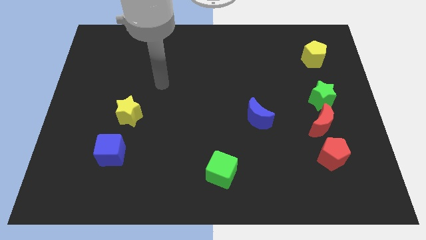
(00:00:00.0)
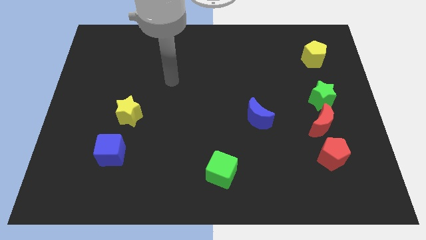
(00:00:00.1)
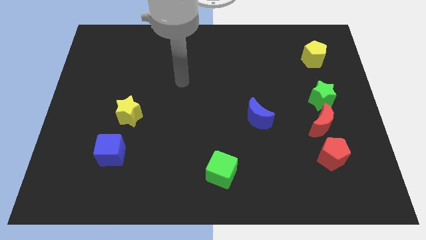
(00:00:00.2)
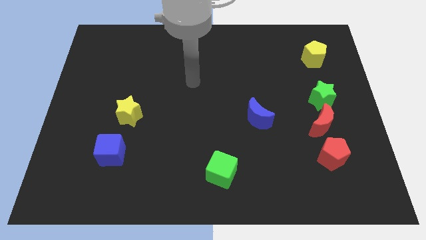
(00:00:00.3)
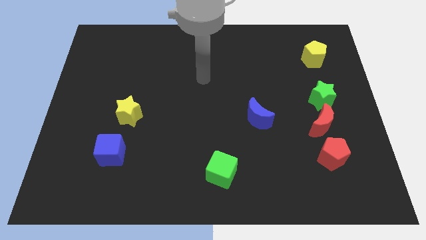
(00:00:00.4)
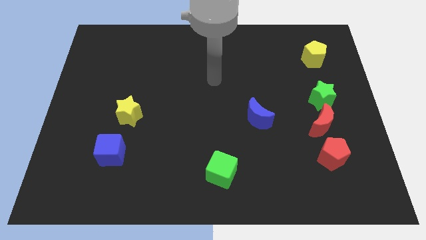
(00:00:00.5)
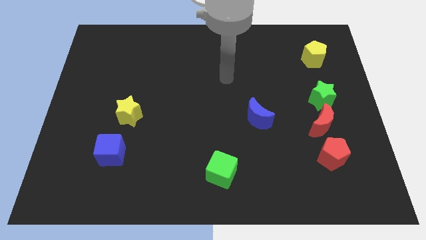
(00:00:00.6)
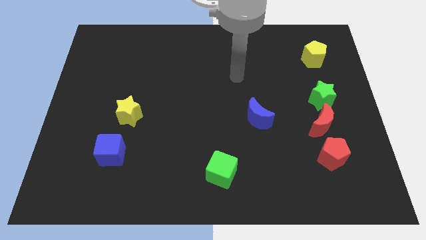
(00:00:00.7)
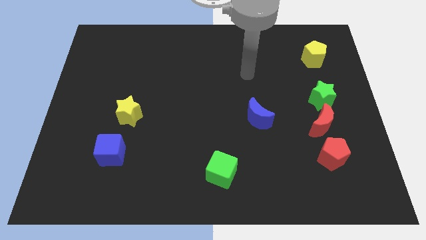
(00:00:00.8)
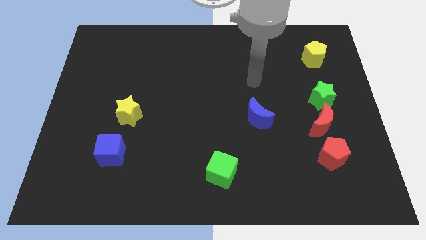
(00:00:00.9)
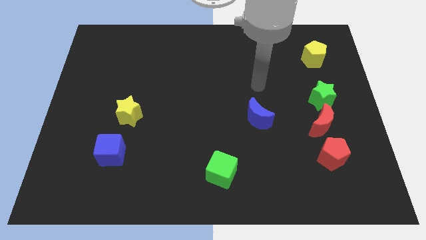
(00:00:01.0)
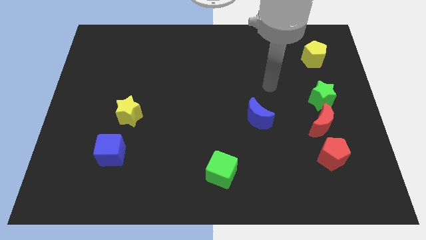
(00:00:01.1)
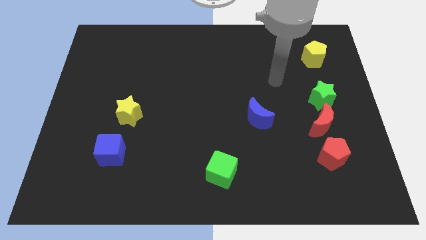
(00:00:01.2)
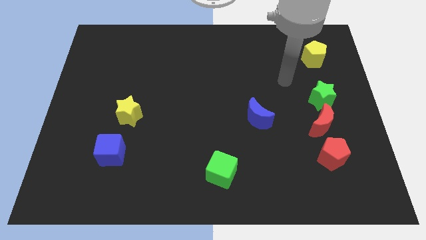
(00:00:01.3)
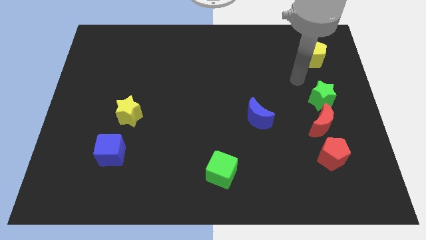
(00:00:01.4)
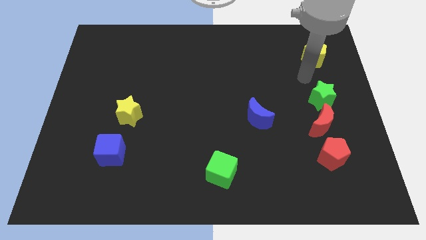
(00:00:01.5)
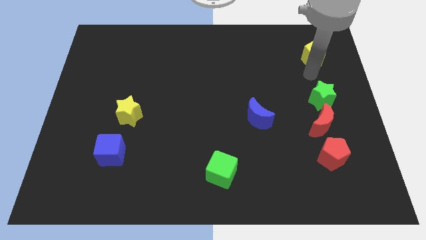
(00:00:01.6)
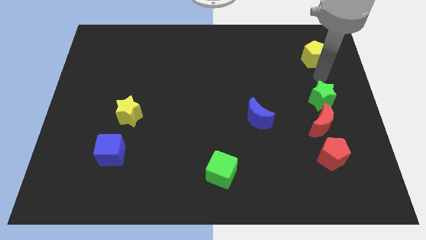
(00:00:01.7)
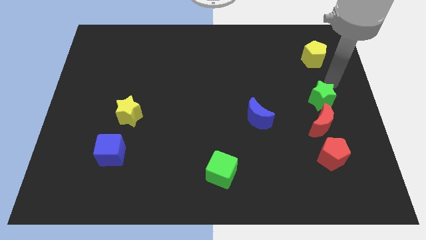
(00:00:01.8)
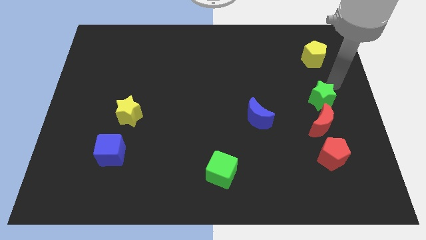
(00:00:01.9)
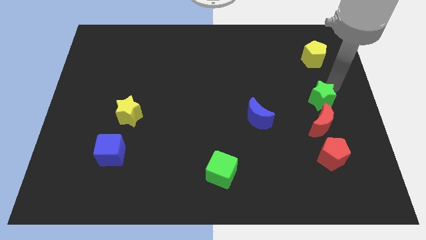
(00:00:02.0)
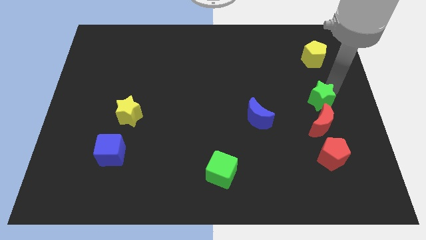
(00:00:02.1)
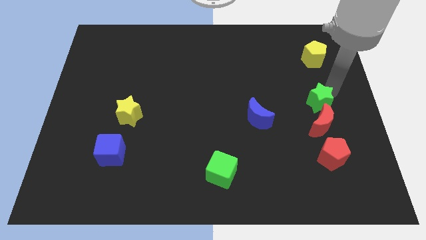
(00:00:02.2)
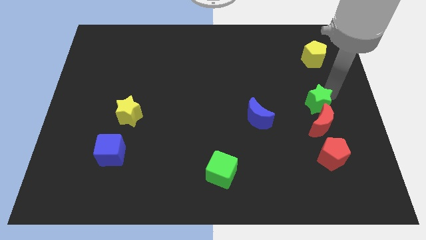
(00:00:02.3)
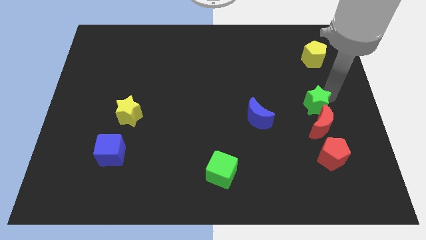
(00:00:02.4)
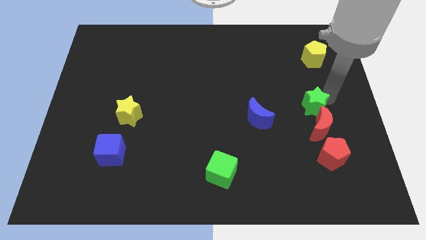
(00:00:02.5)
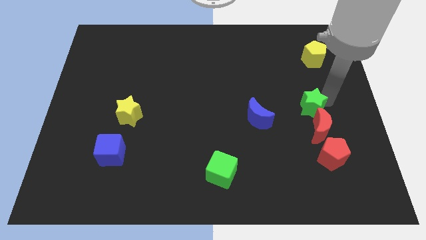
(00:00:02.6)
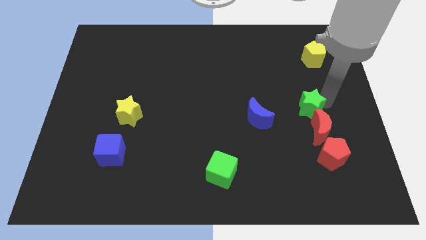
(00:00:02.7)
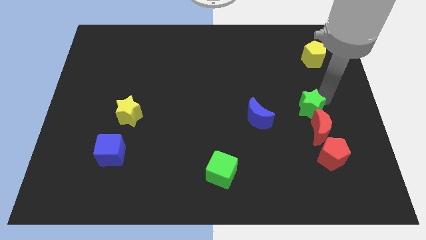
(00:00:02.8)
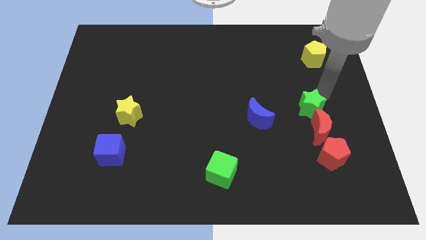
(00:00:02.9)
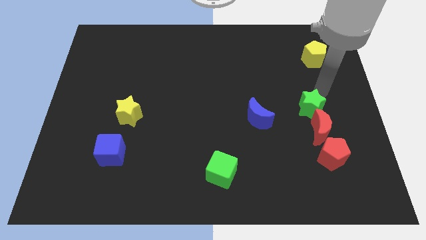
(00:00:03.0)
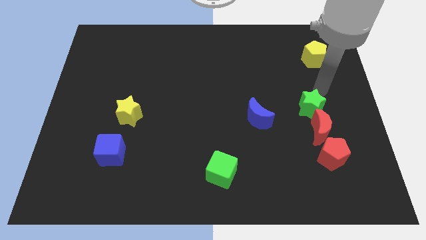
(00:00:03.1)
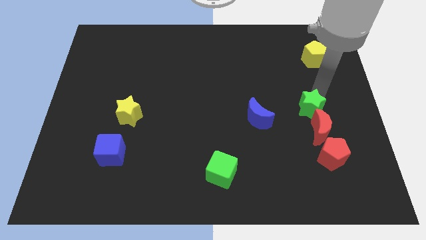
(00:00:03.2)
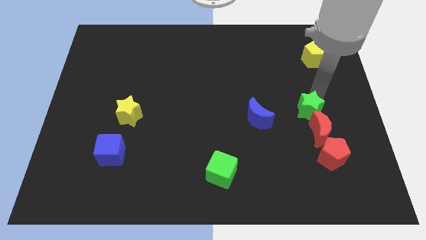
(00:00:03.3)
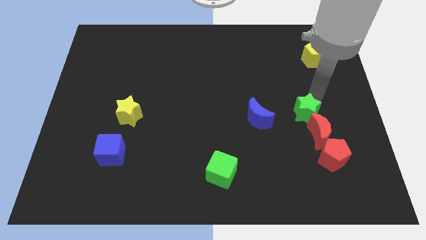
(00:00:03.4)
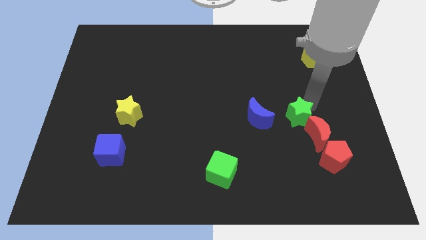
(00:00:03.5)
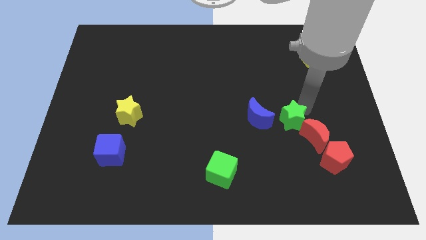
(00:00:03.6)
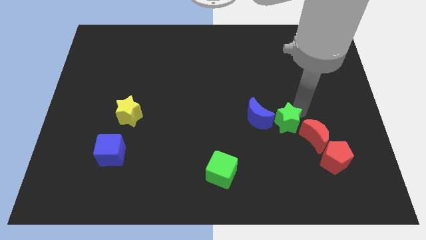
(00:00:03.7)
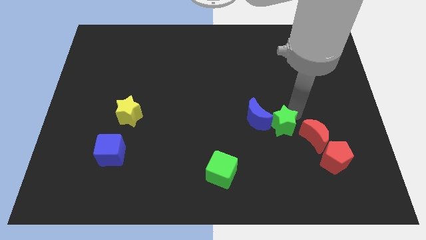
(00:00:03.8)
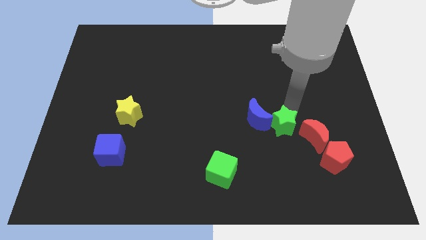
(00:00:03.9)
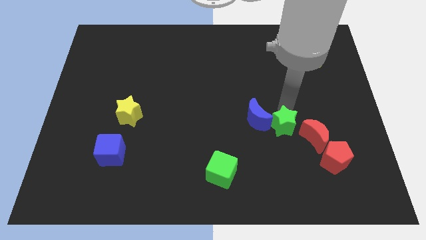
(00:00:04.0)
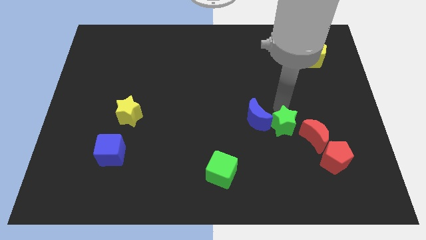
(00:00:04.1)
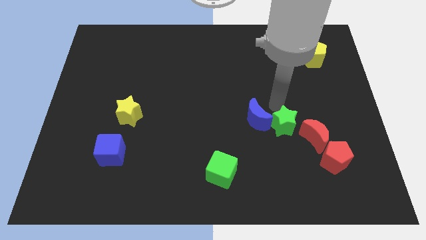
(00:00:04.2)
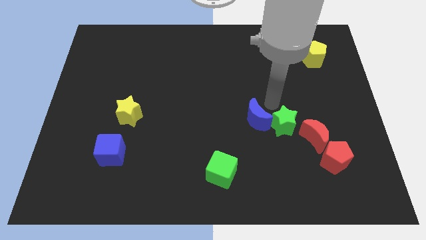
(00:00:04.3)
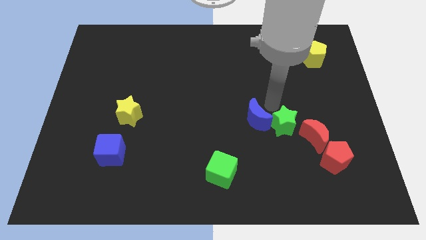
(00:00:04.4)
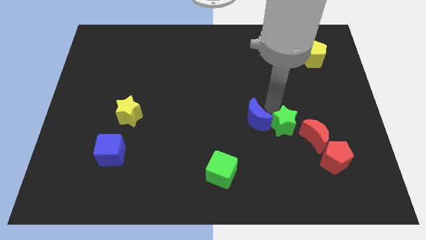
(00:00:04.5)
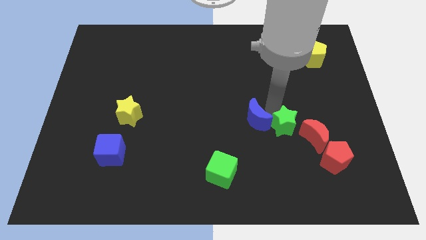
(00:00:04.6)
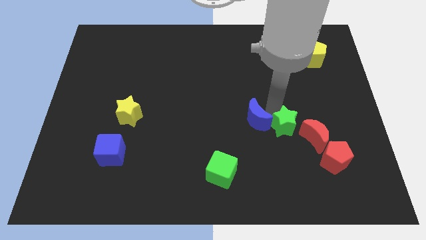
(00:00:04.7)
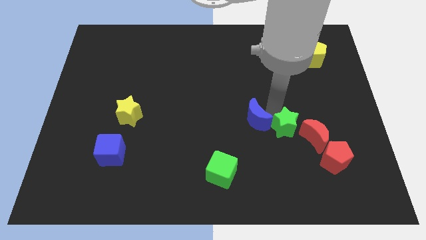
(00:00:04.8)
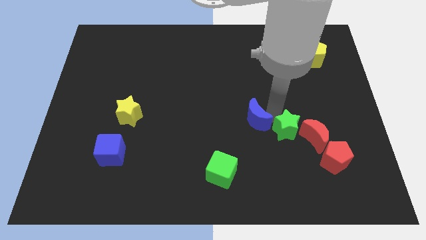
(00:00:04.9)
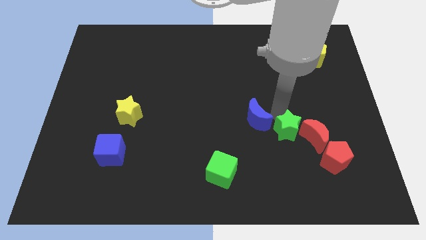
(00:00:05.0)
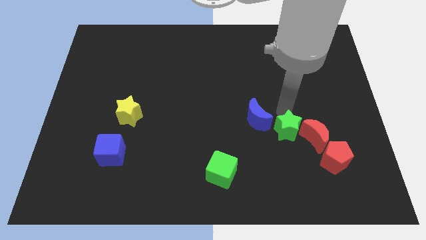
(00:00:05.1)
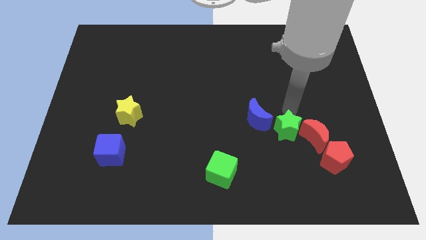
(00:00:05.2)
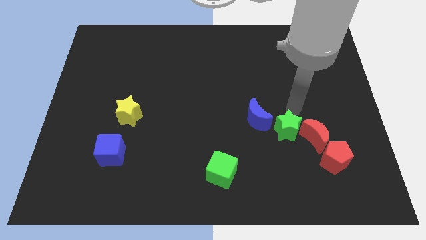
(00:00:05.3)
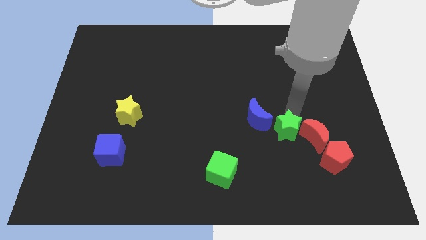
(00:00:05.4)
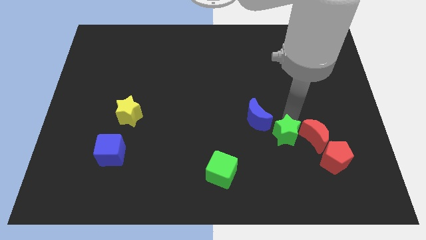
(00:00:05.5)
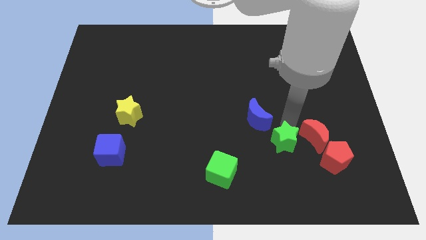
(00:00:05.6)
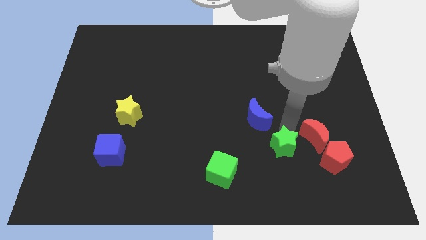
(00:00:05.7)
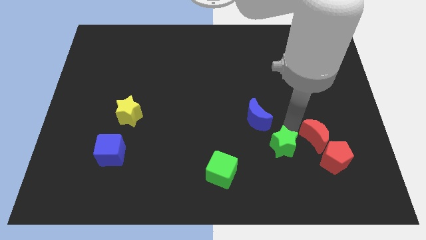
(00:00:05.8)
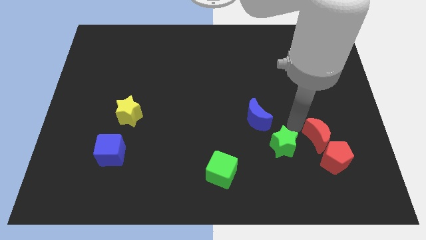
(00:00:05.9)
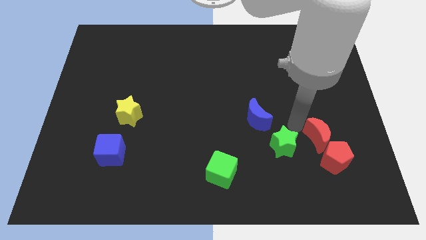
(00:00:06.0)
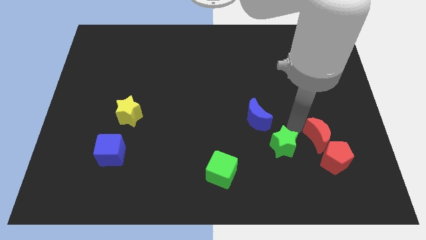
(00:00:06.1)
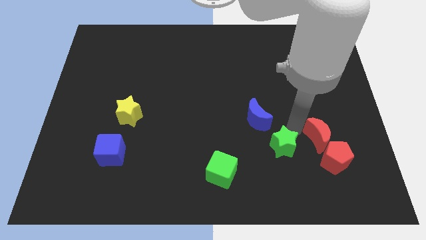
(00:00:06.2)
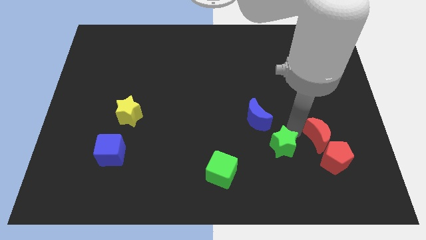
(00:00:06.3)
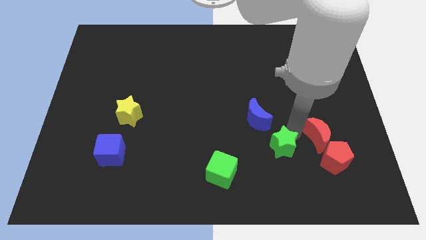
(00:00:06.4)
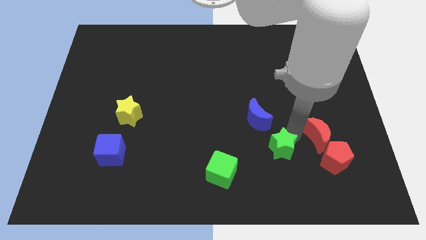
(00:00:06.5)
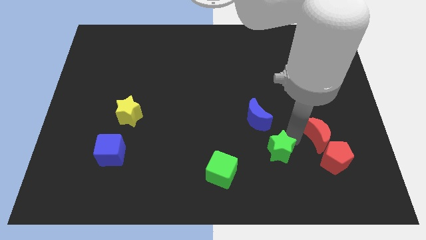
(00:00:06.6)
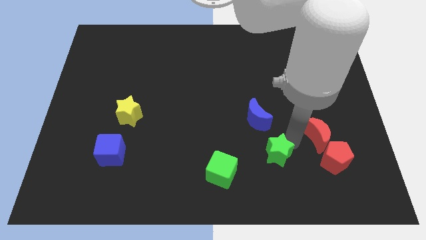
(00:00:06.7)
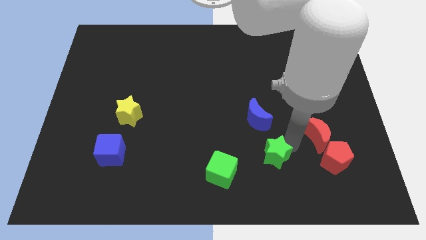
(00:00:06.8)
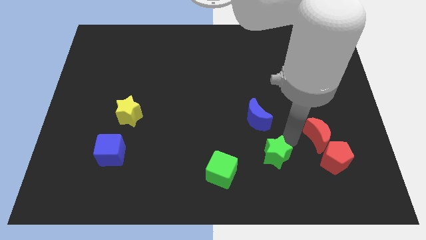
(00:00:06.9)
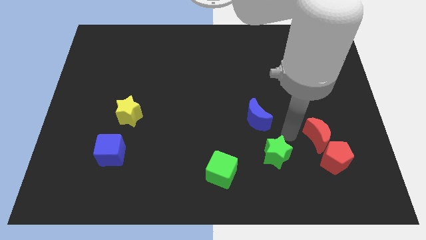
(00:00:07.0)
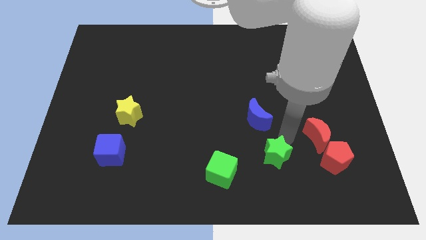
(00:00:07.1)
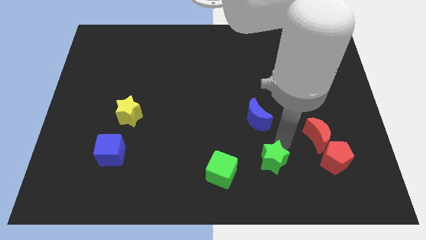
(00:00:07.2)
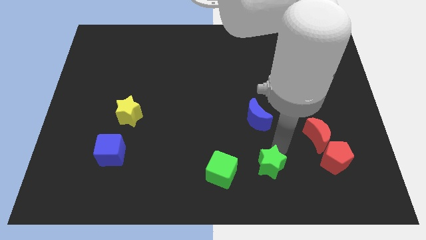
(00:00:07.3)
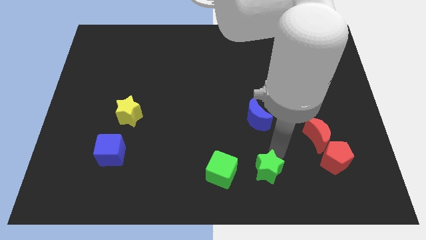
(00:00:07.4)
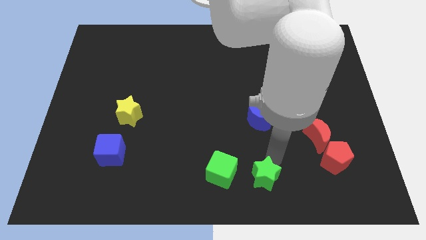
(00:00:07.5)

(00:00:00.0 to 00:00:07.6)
push the green star to the bottom
